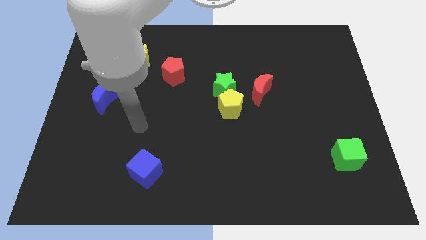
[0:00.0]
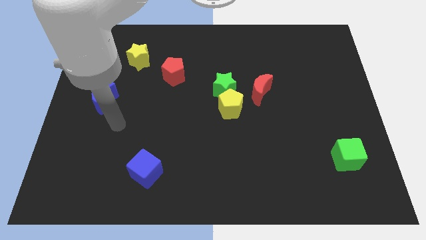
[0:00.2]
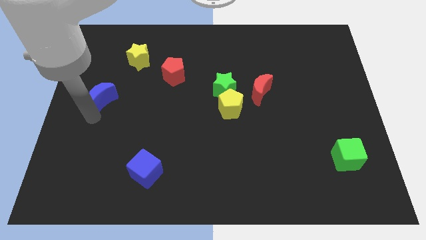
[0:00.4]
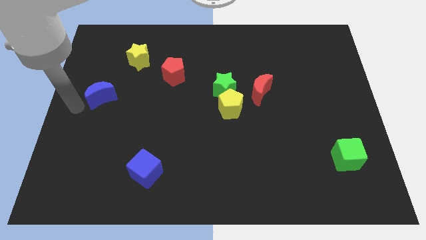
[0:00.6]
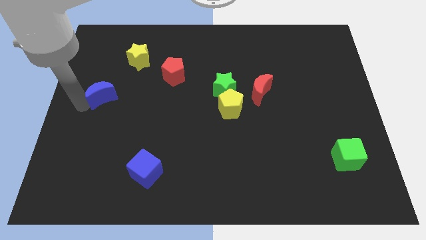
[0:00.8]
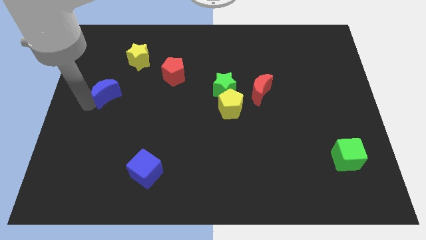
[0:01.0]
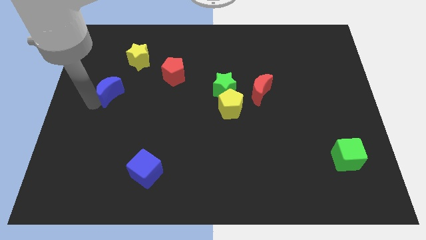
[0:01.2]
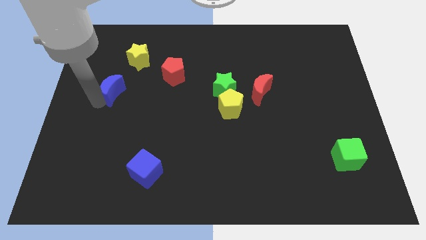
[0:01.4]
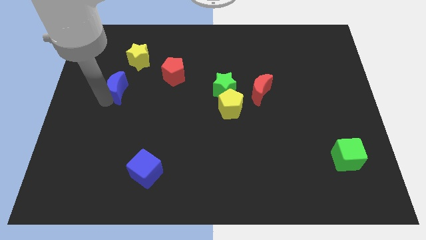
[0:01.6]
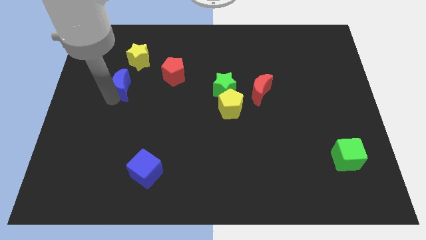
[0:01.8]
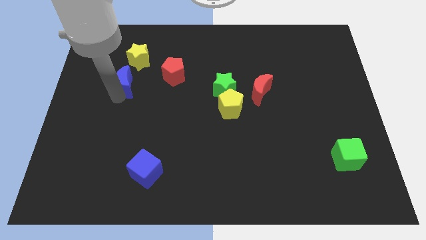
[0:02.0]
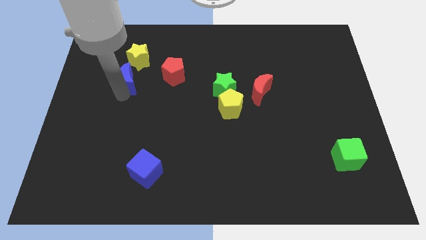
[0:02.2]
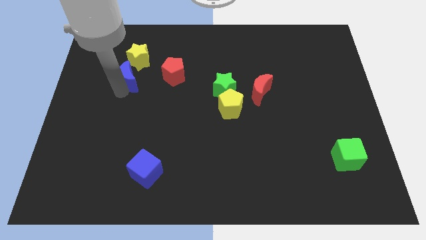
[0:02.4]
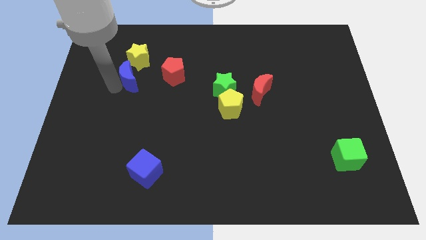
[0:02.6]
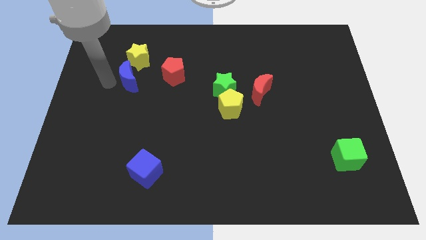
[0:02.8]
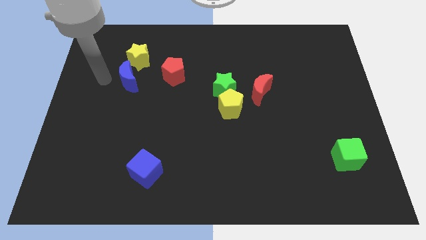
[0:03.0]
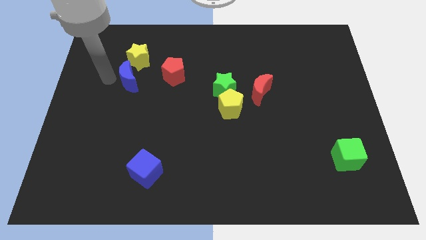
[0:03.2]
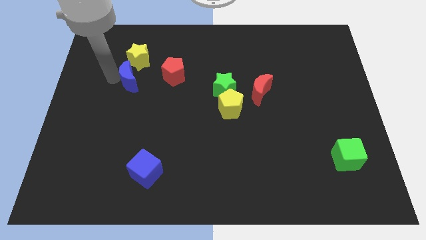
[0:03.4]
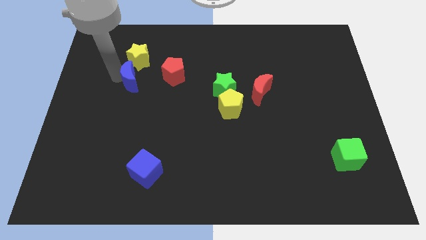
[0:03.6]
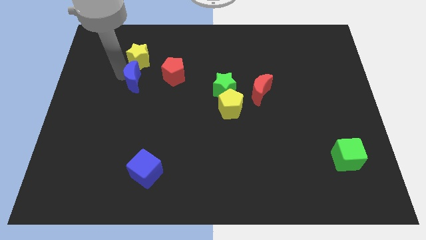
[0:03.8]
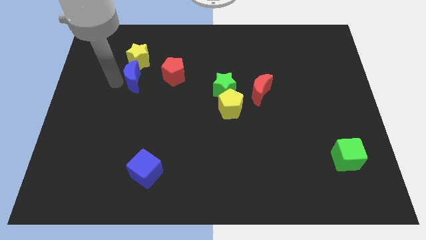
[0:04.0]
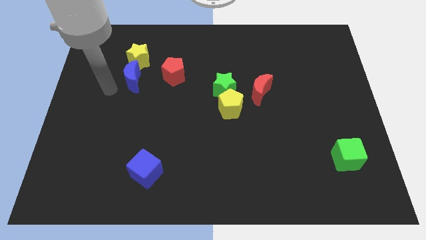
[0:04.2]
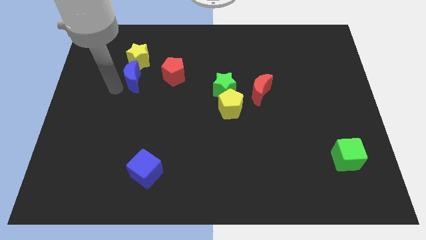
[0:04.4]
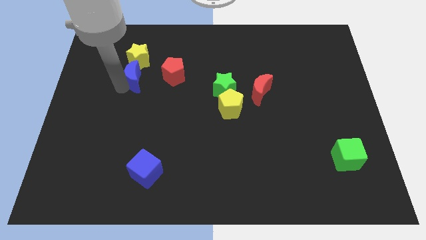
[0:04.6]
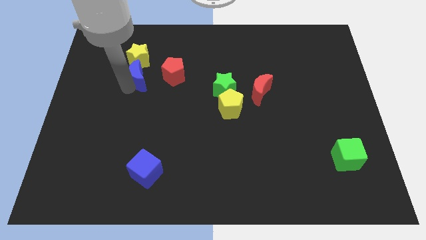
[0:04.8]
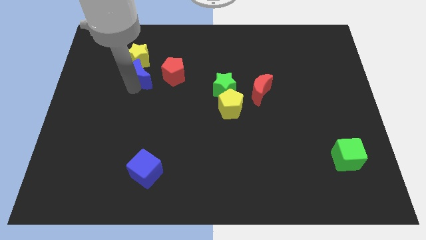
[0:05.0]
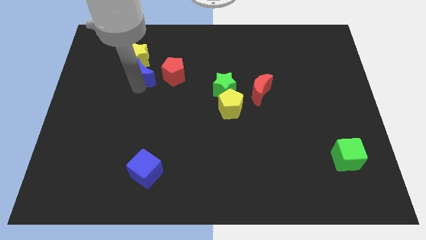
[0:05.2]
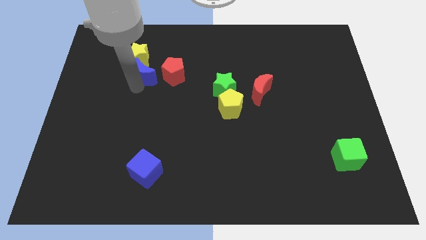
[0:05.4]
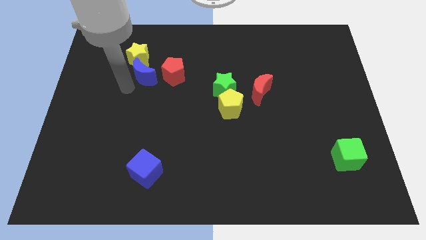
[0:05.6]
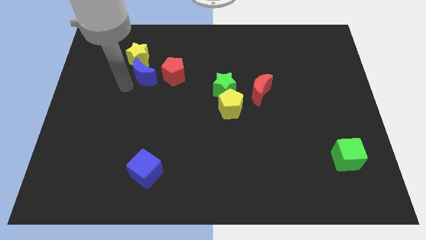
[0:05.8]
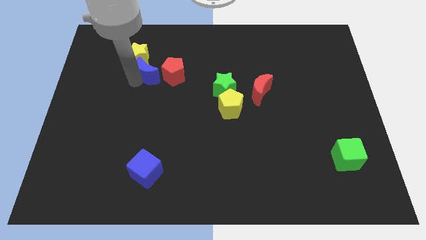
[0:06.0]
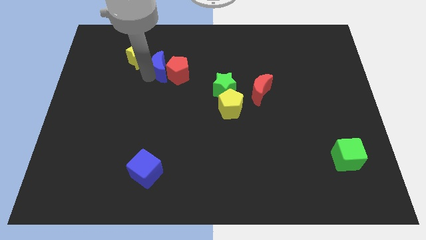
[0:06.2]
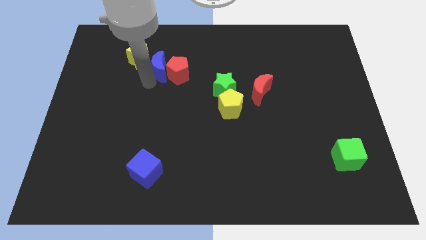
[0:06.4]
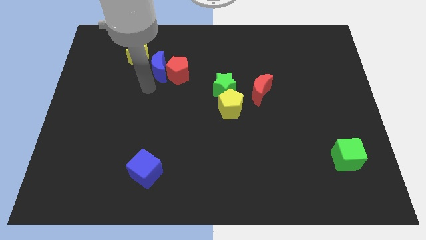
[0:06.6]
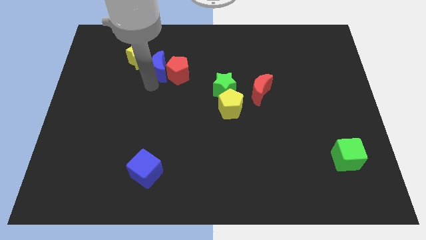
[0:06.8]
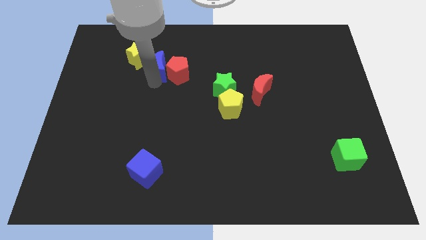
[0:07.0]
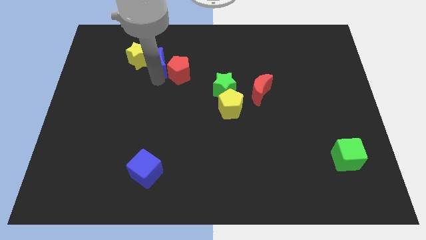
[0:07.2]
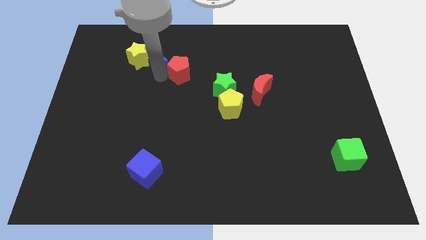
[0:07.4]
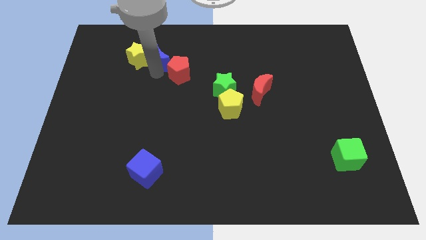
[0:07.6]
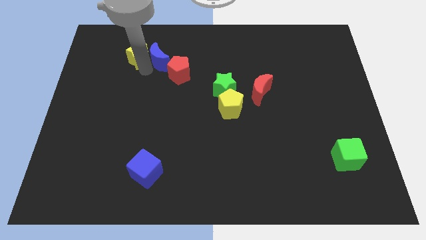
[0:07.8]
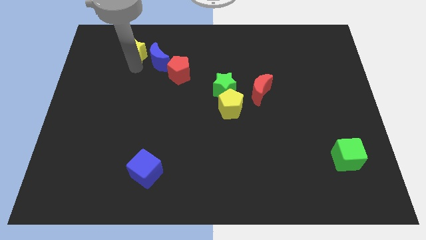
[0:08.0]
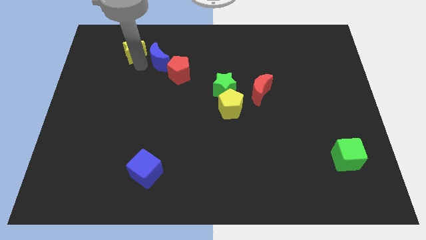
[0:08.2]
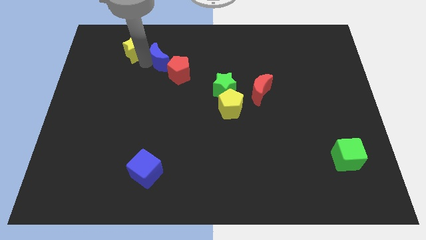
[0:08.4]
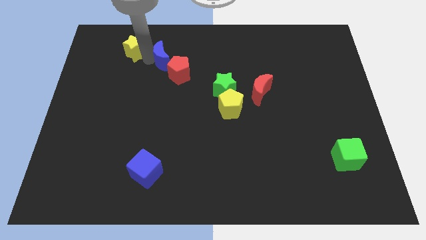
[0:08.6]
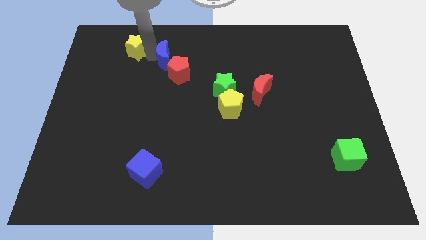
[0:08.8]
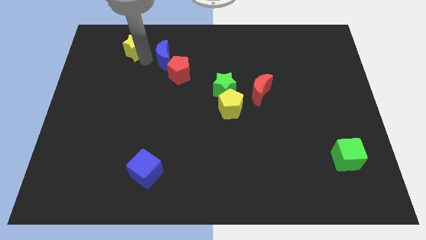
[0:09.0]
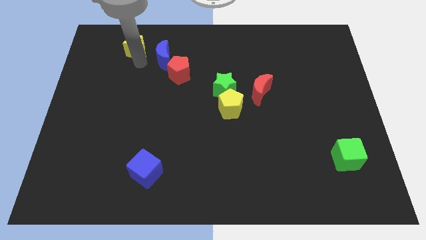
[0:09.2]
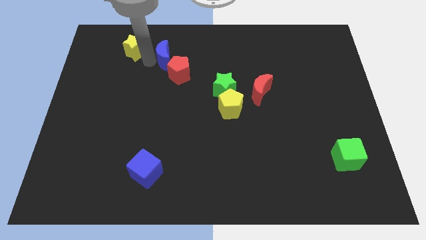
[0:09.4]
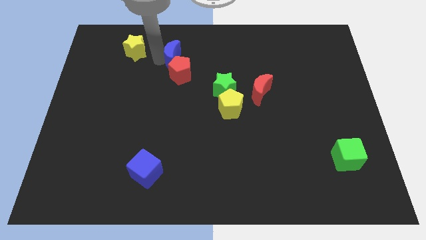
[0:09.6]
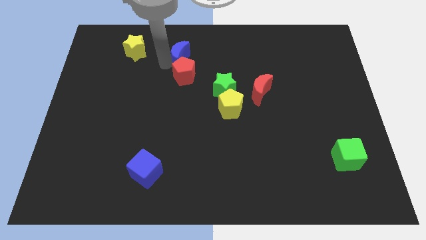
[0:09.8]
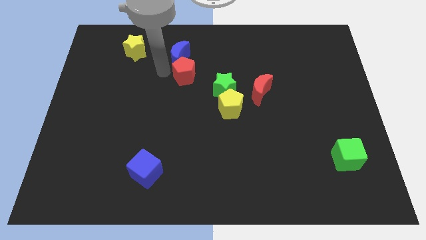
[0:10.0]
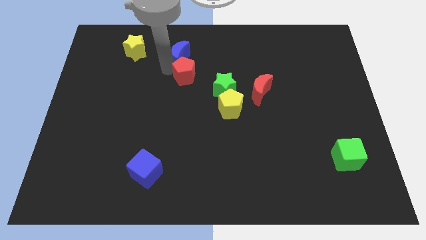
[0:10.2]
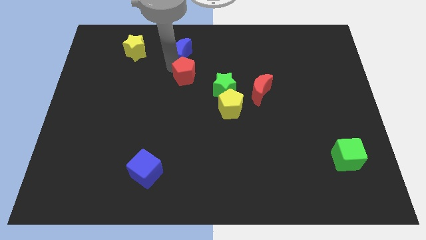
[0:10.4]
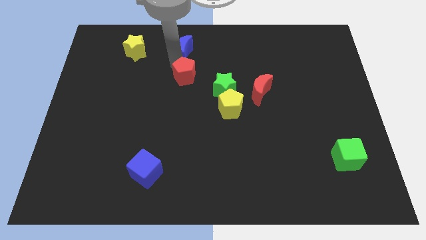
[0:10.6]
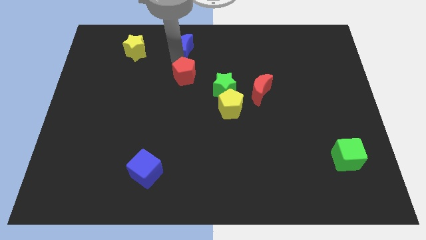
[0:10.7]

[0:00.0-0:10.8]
move the blue moon to the top

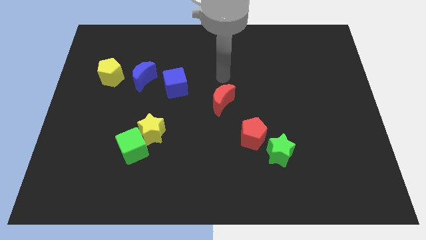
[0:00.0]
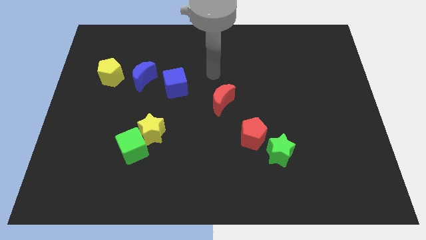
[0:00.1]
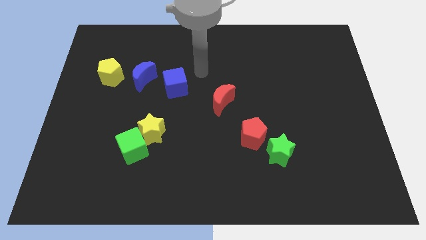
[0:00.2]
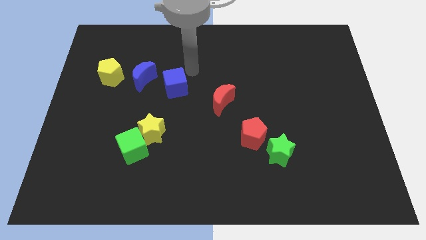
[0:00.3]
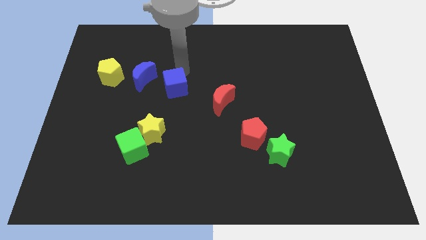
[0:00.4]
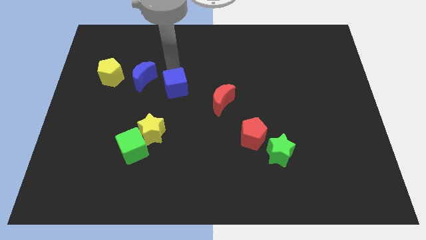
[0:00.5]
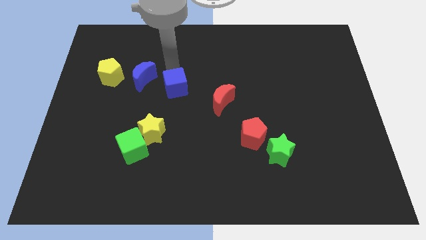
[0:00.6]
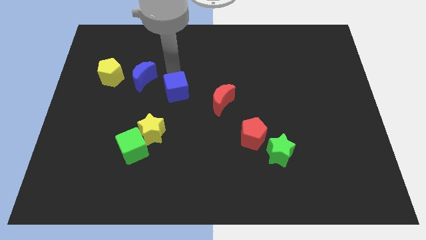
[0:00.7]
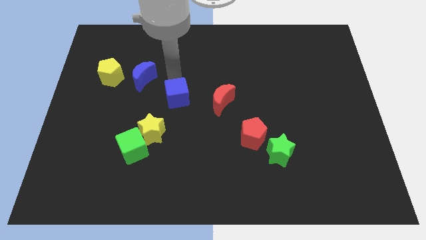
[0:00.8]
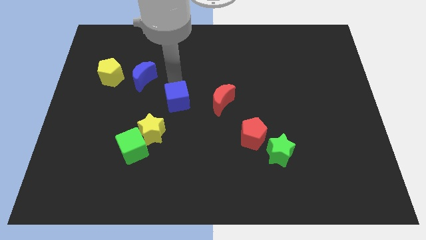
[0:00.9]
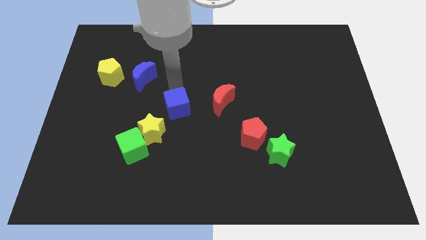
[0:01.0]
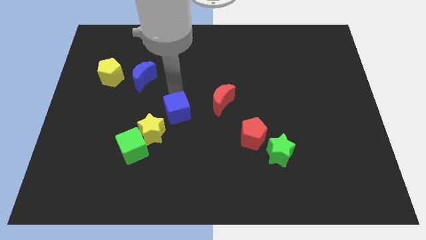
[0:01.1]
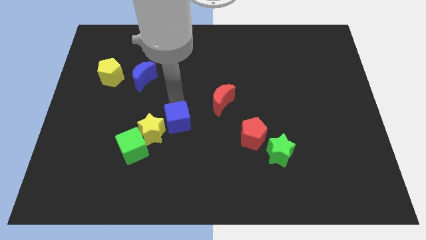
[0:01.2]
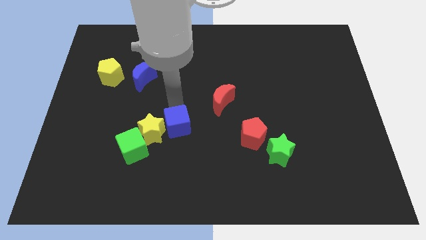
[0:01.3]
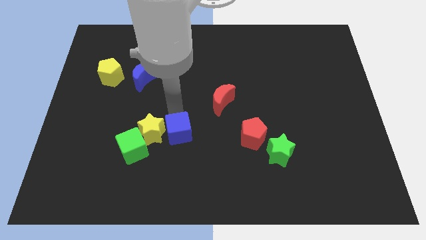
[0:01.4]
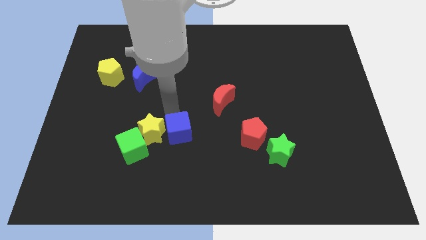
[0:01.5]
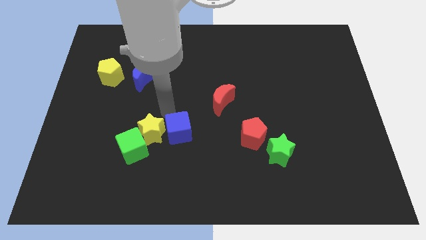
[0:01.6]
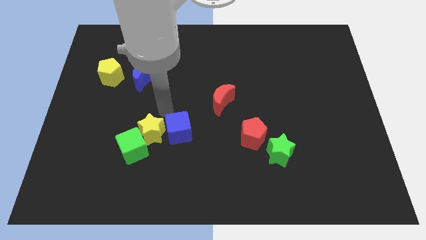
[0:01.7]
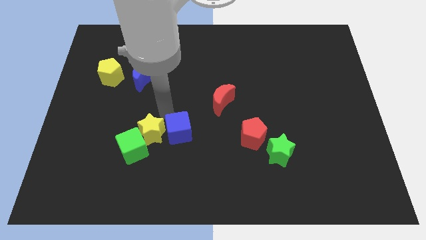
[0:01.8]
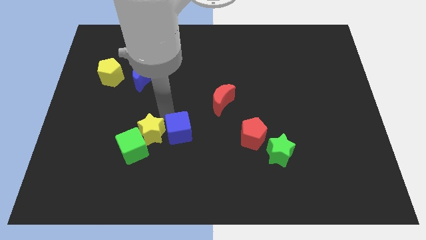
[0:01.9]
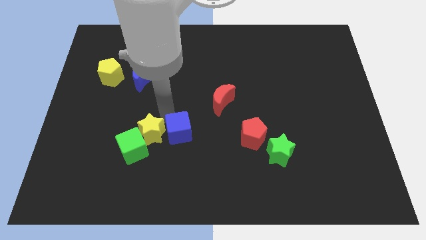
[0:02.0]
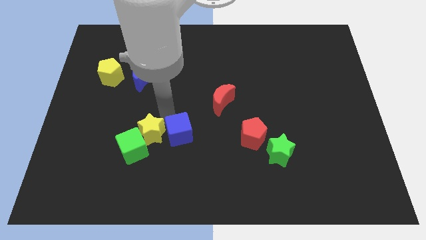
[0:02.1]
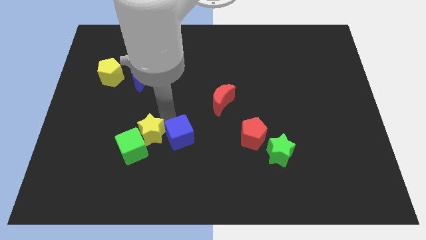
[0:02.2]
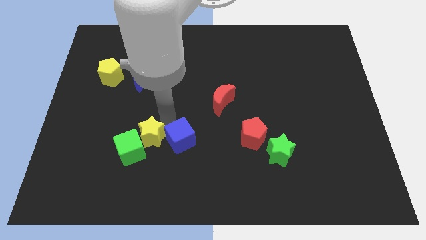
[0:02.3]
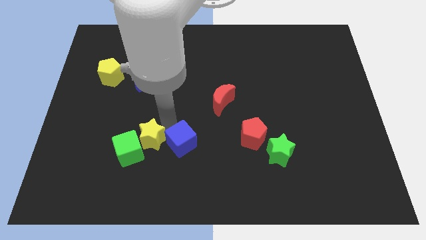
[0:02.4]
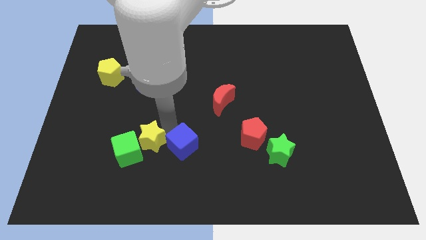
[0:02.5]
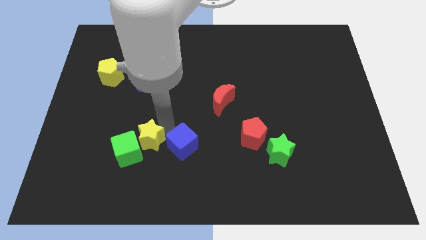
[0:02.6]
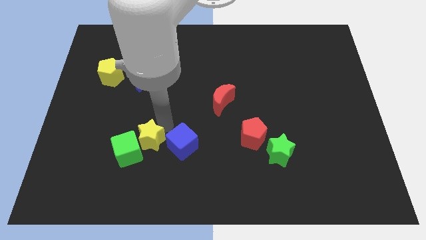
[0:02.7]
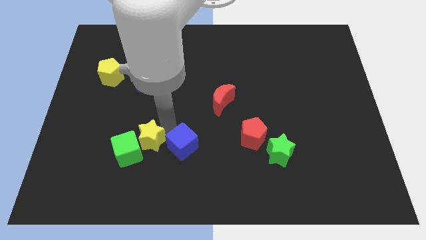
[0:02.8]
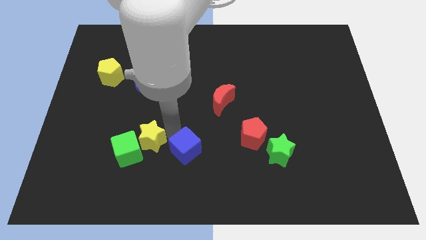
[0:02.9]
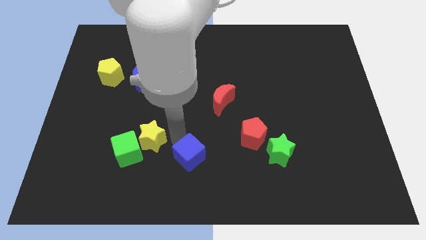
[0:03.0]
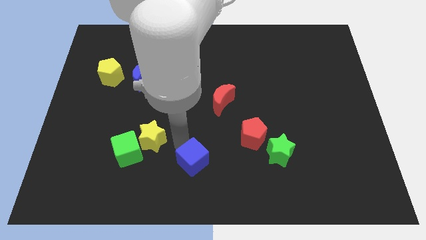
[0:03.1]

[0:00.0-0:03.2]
push the blue cube to the bottom side
